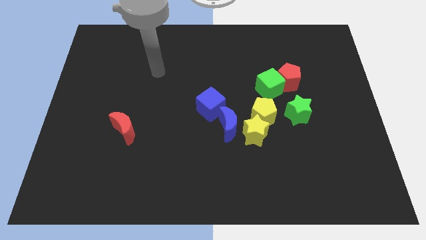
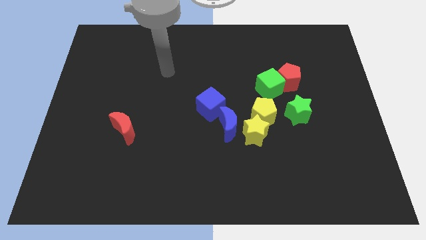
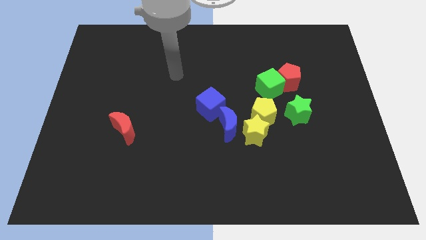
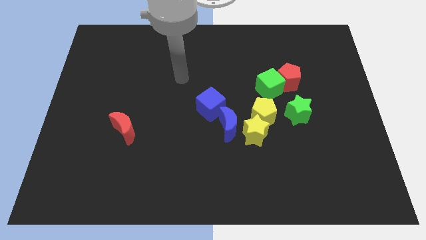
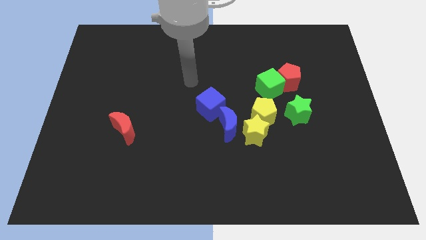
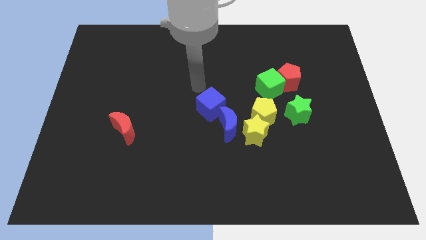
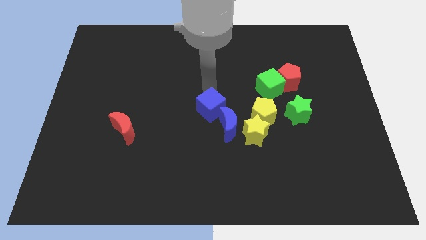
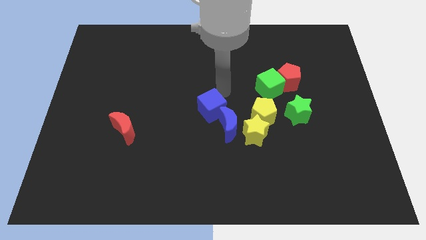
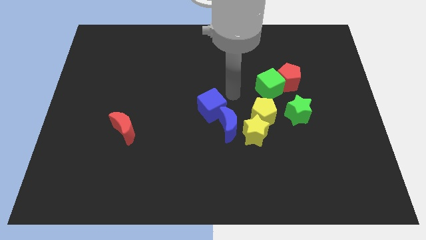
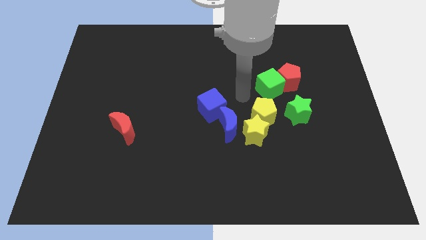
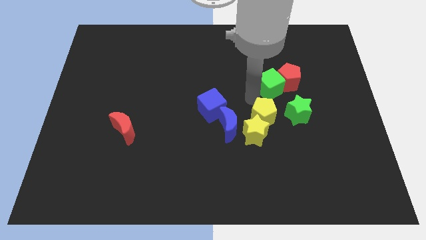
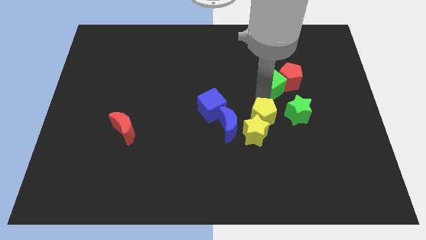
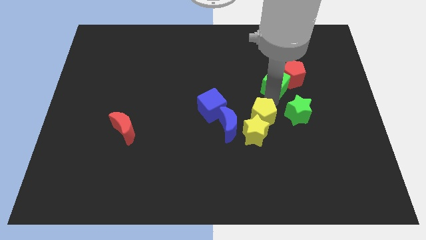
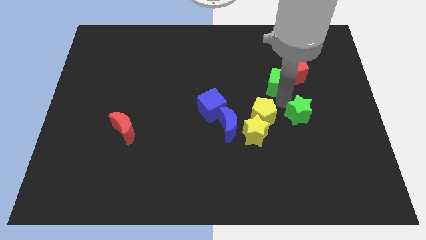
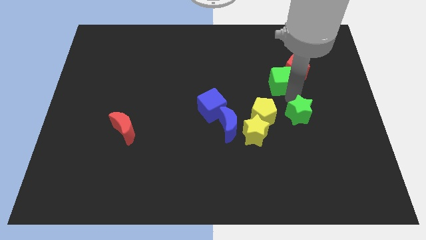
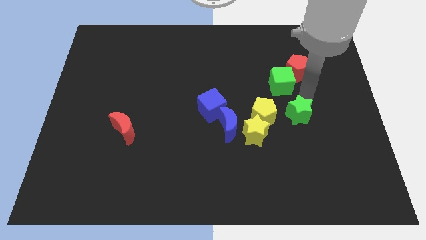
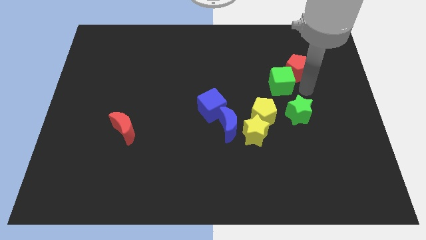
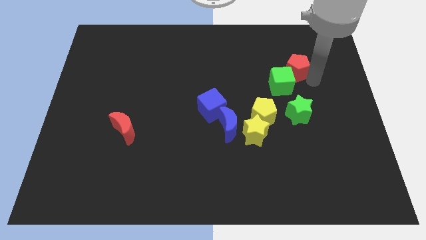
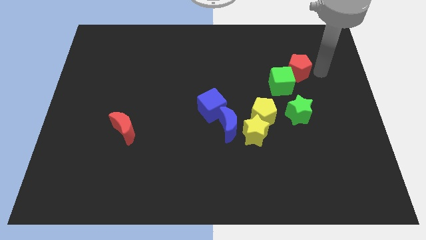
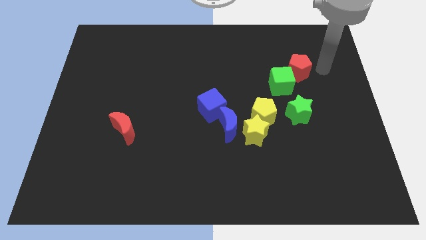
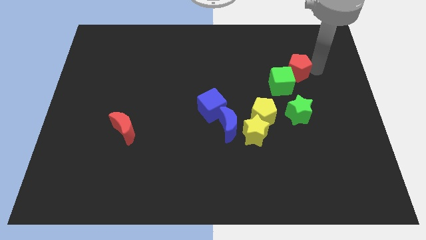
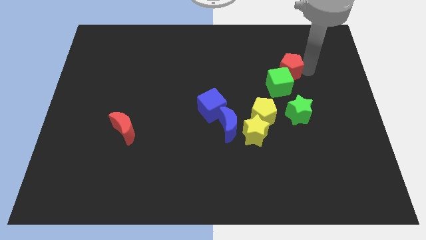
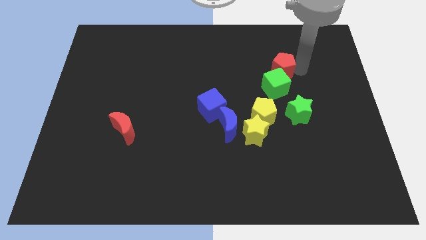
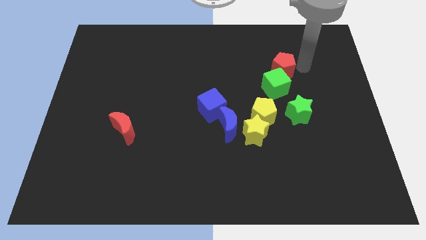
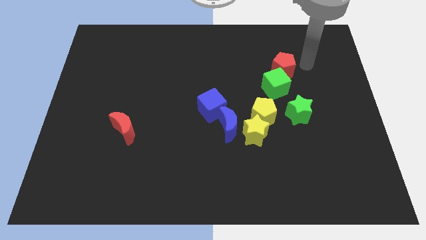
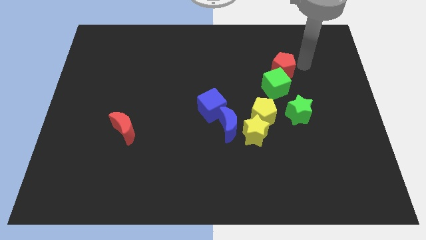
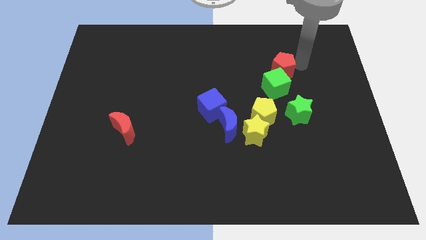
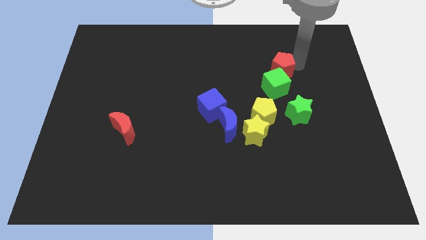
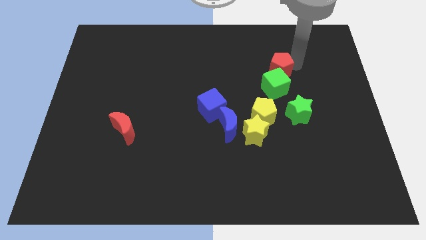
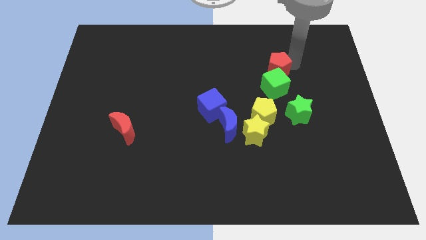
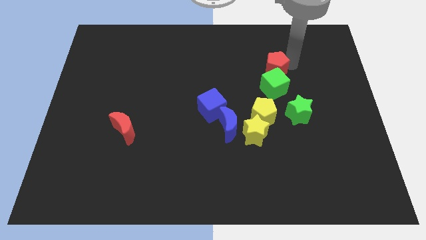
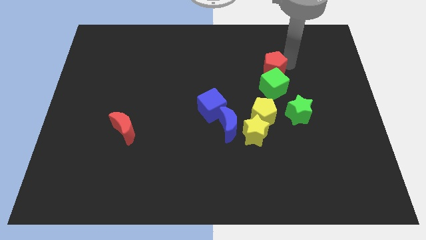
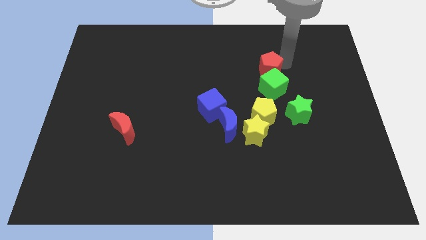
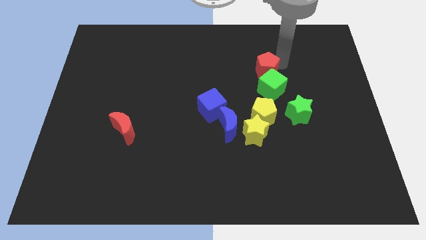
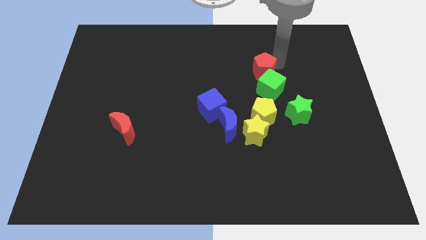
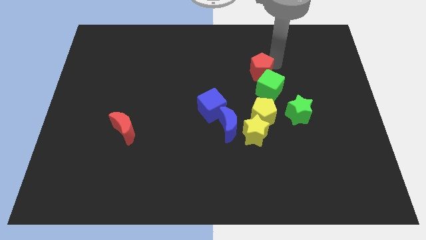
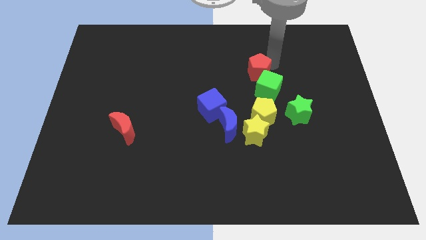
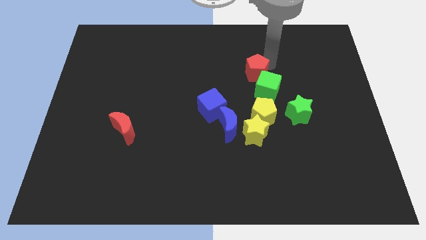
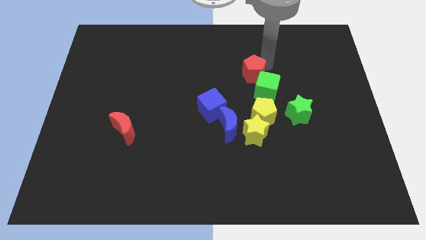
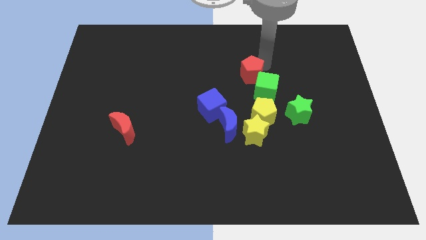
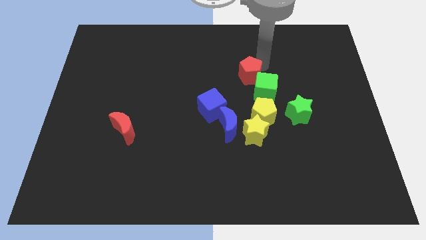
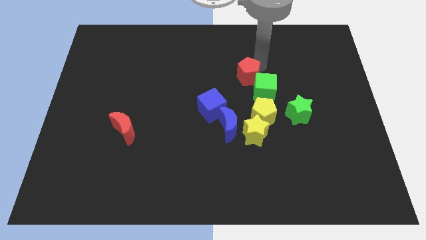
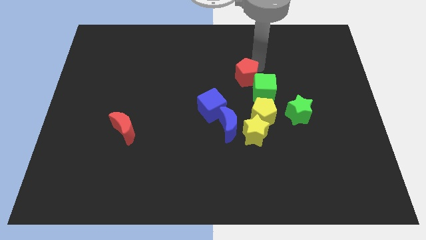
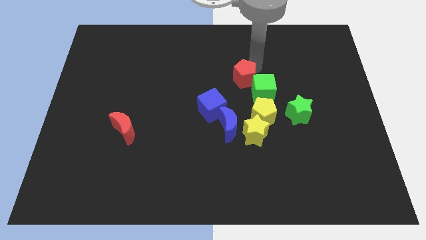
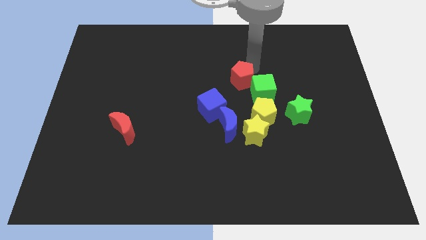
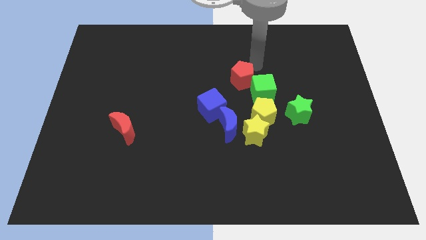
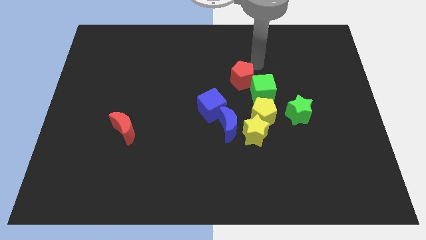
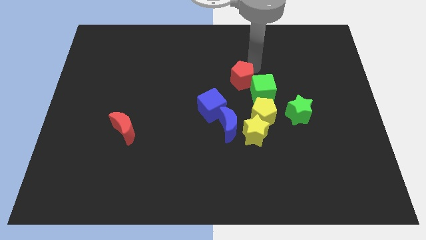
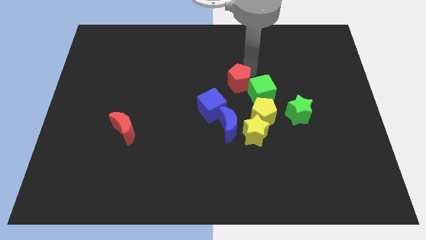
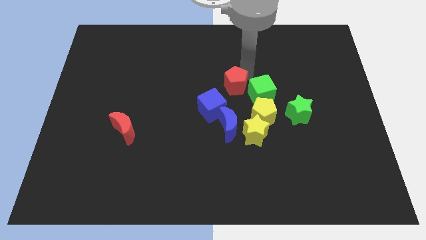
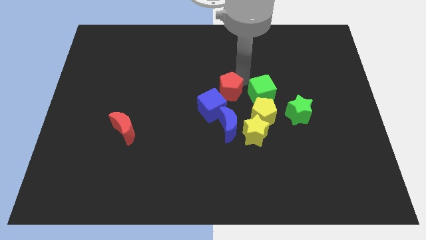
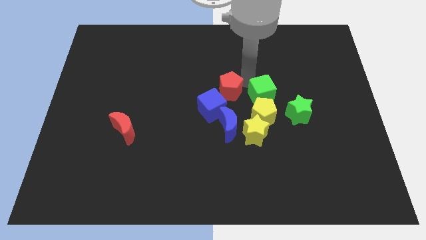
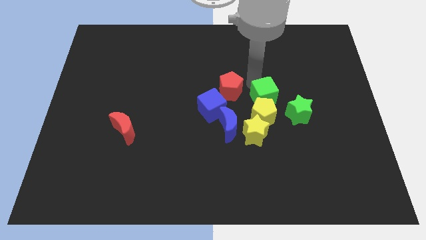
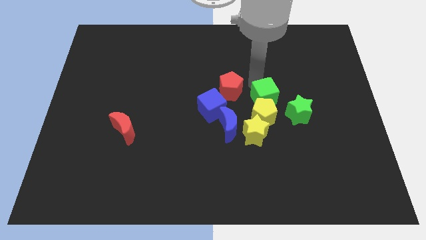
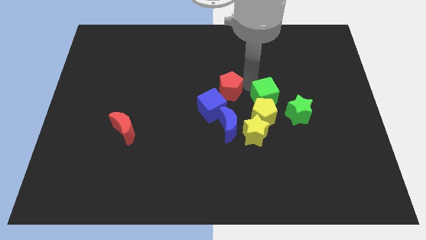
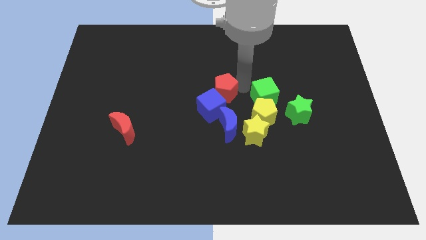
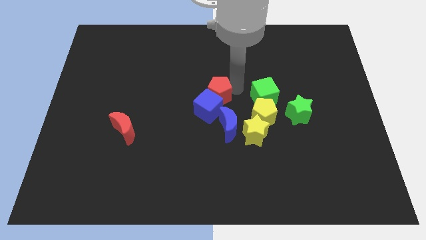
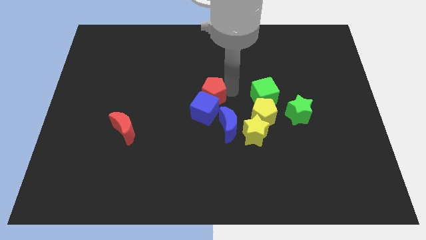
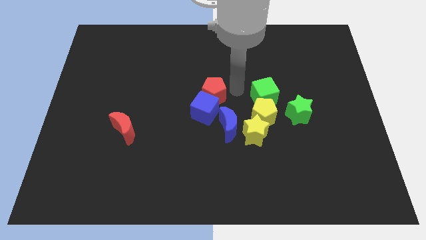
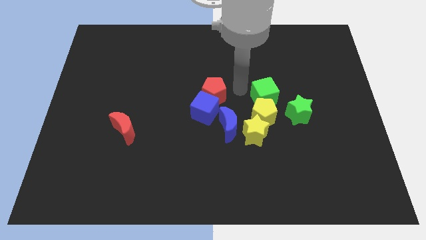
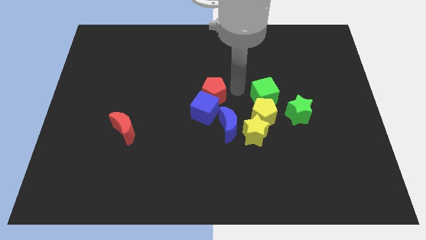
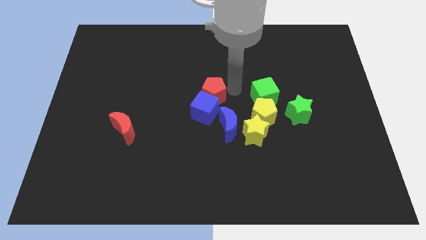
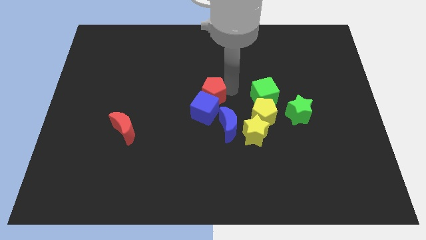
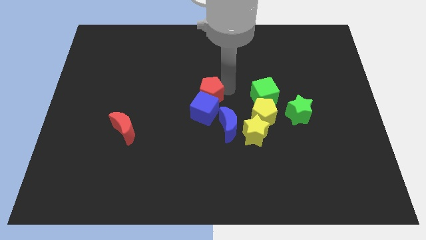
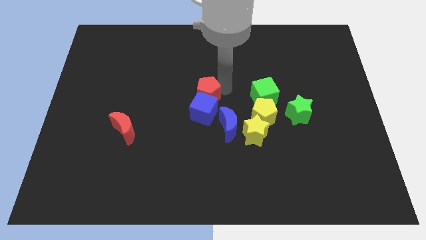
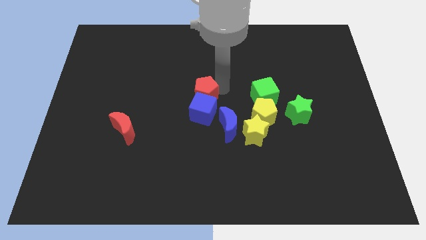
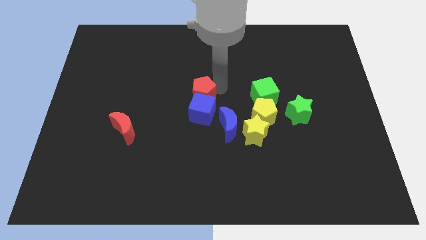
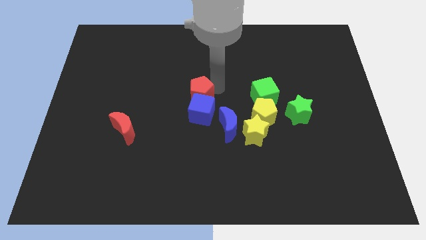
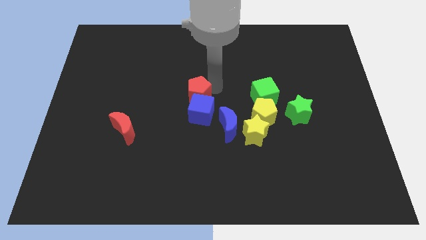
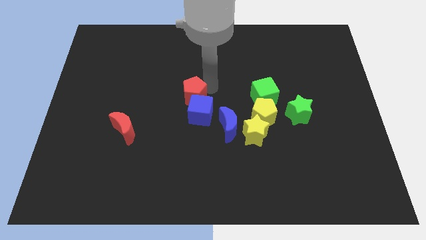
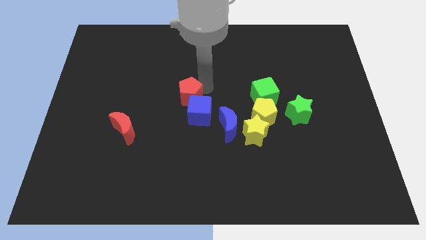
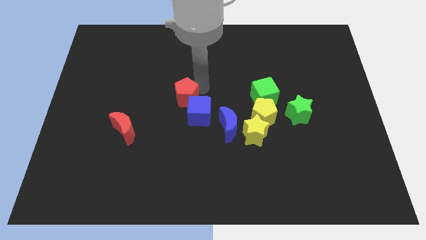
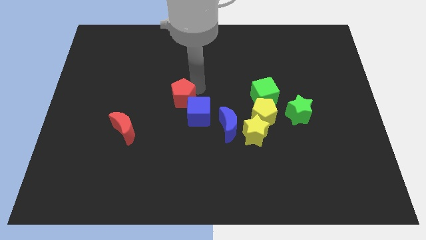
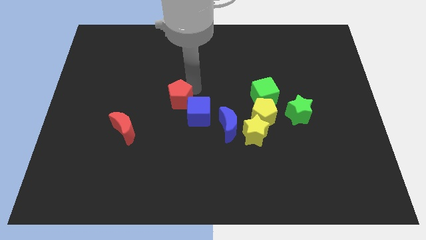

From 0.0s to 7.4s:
put the red pentagon just left of the blue cube
